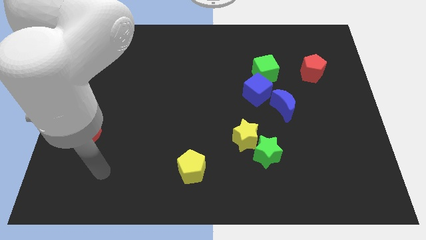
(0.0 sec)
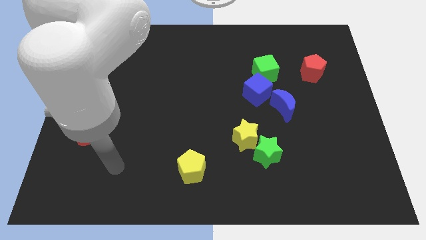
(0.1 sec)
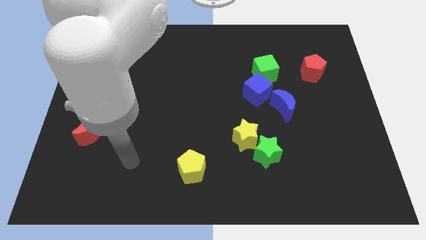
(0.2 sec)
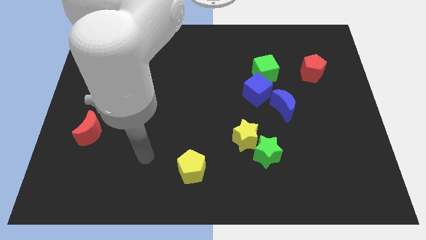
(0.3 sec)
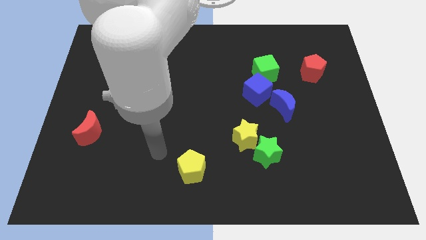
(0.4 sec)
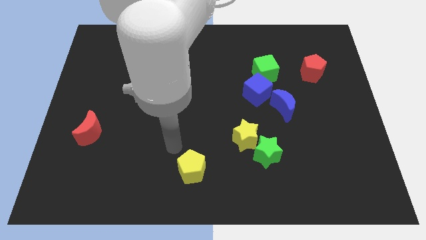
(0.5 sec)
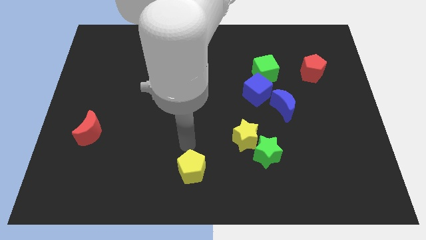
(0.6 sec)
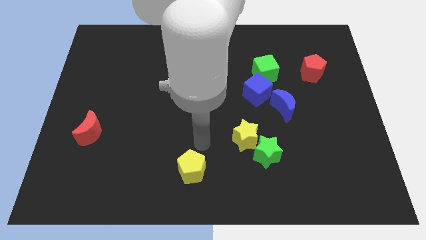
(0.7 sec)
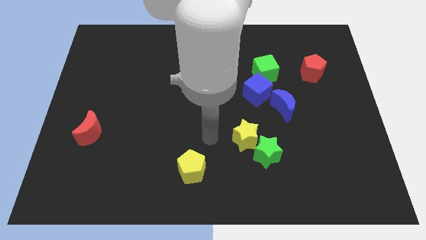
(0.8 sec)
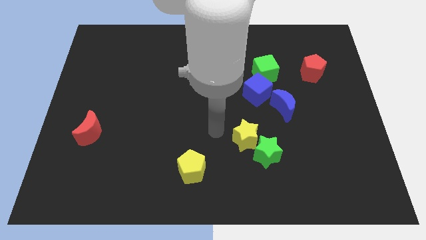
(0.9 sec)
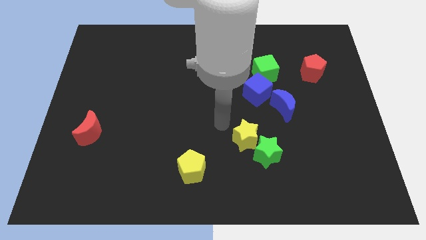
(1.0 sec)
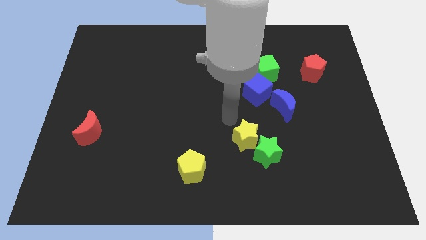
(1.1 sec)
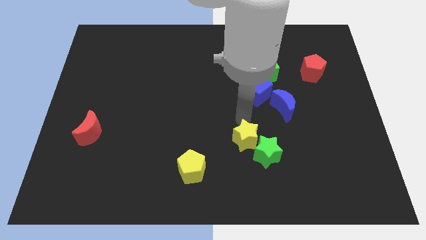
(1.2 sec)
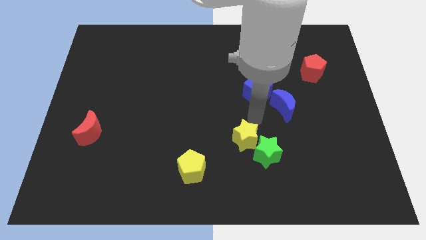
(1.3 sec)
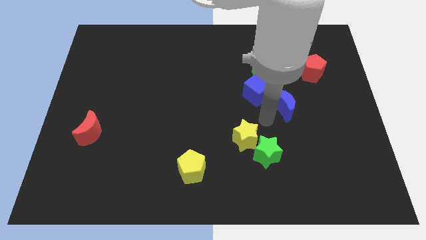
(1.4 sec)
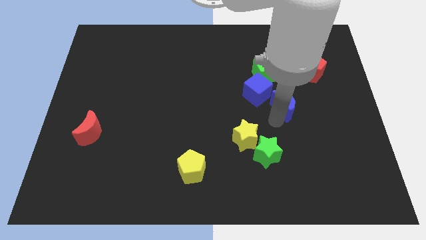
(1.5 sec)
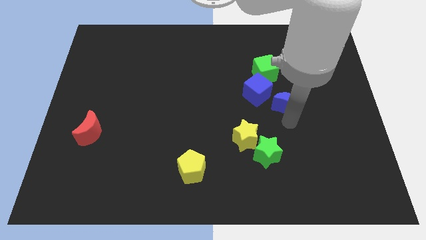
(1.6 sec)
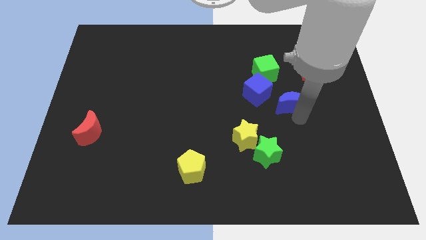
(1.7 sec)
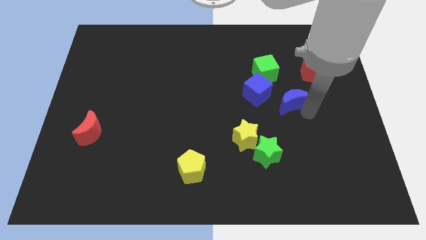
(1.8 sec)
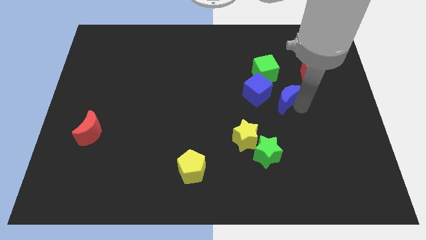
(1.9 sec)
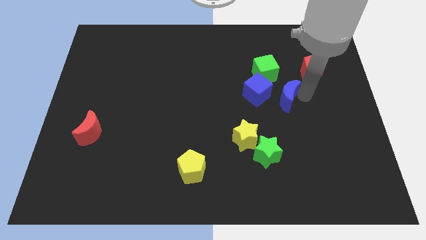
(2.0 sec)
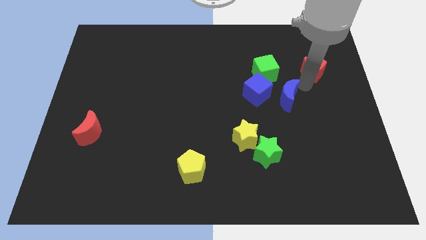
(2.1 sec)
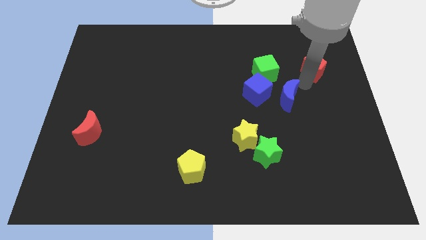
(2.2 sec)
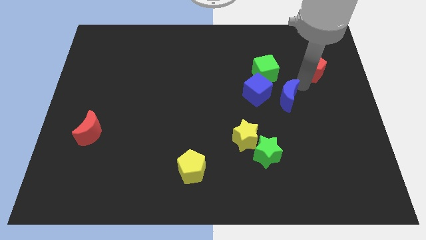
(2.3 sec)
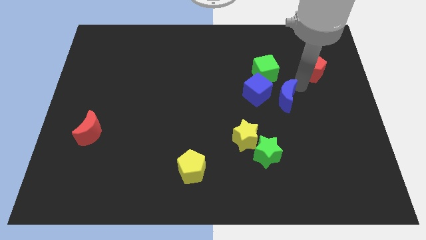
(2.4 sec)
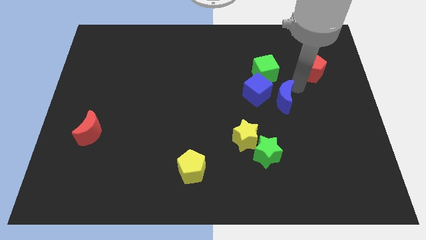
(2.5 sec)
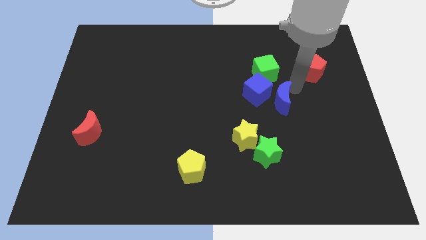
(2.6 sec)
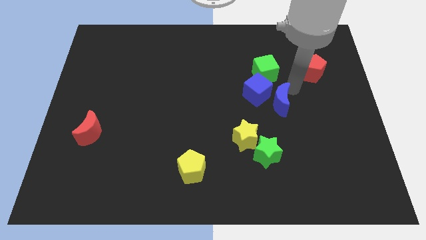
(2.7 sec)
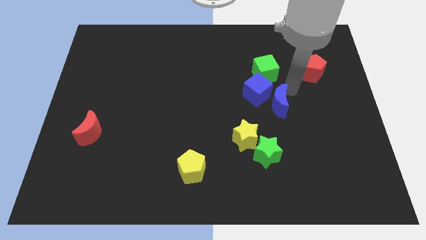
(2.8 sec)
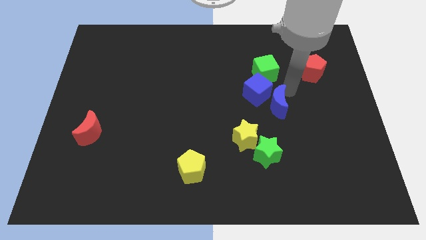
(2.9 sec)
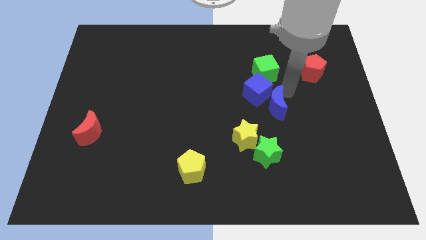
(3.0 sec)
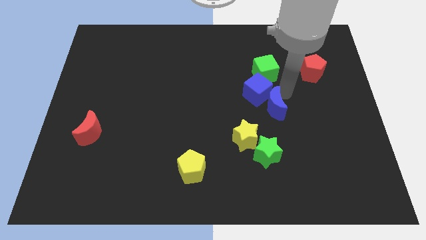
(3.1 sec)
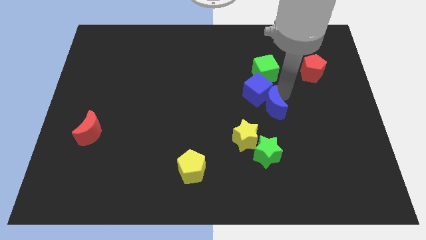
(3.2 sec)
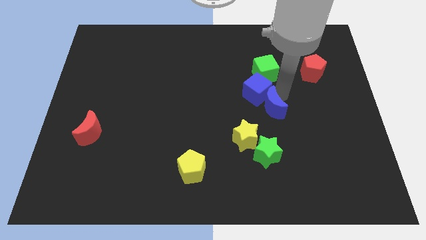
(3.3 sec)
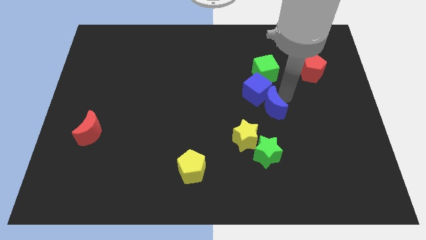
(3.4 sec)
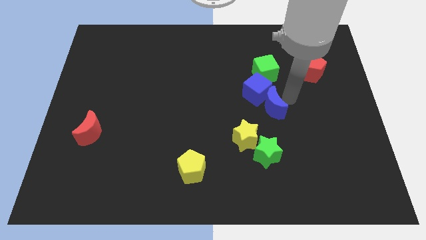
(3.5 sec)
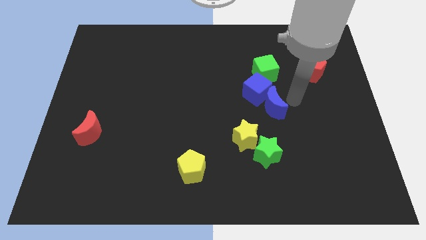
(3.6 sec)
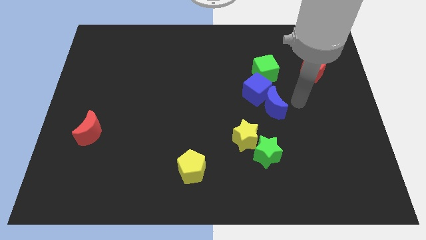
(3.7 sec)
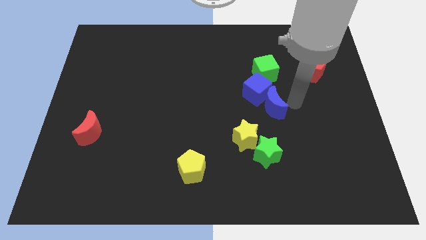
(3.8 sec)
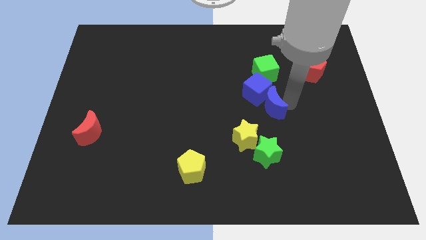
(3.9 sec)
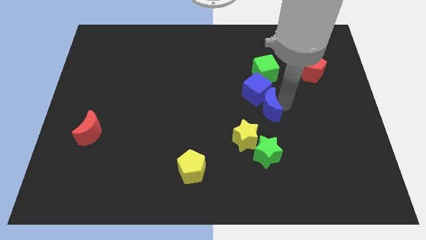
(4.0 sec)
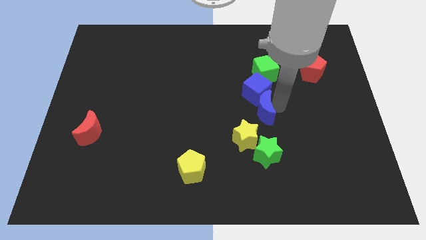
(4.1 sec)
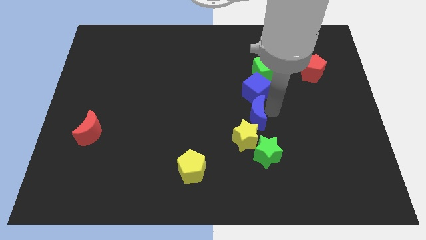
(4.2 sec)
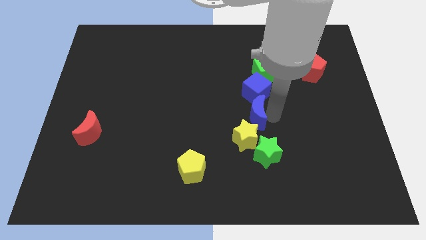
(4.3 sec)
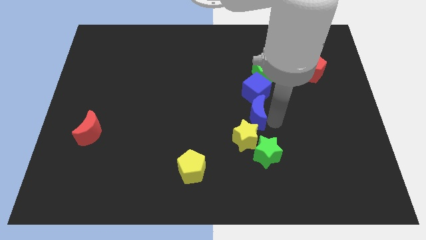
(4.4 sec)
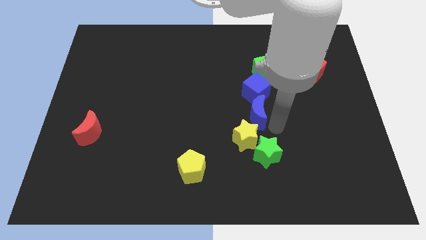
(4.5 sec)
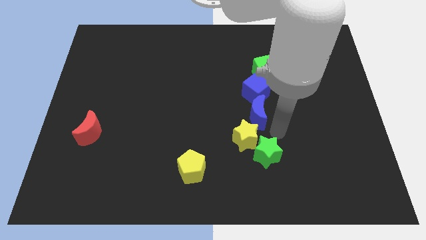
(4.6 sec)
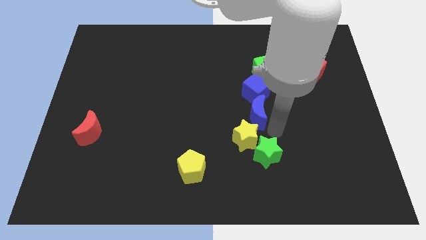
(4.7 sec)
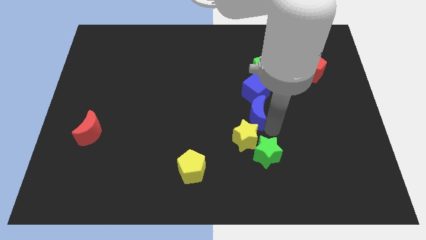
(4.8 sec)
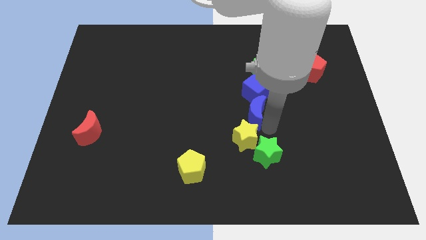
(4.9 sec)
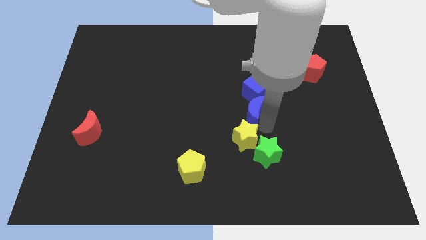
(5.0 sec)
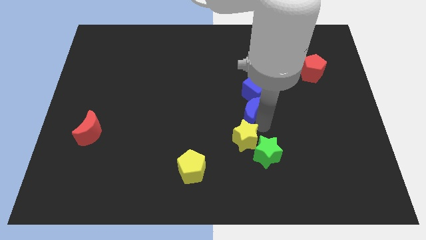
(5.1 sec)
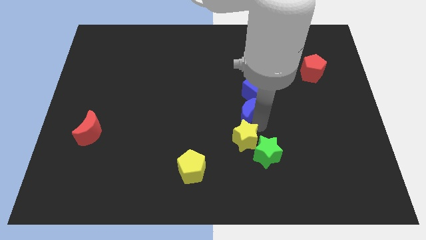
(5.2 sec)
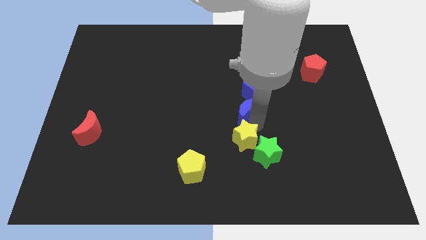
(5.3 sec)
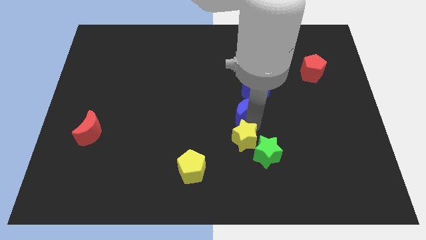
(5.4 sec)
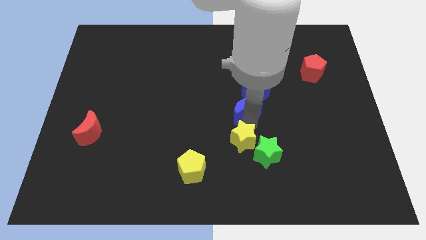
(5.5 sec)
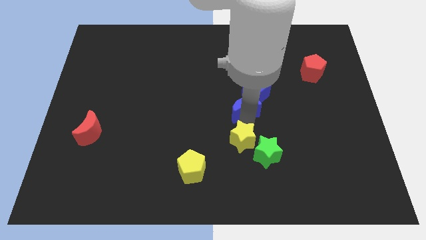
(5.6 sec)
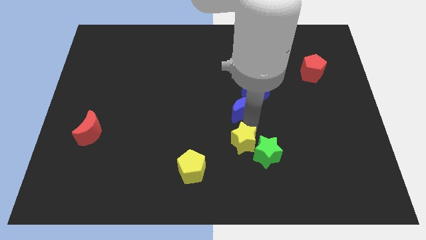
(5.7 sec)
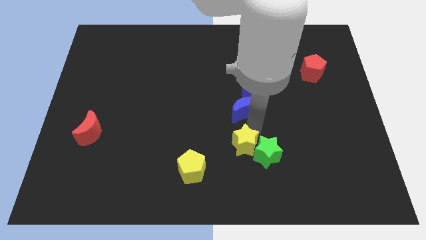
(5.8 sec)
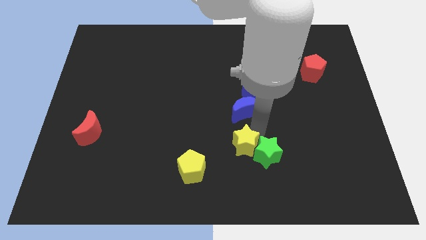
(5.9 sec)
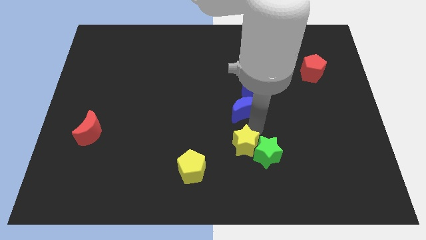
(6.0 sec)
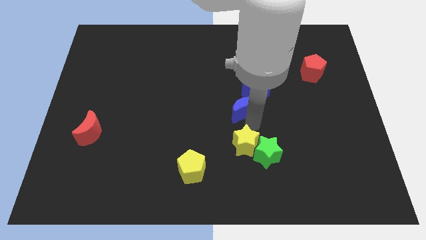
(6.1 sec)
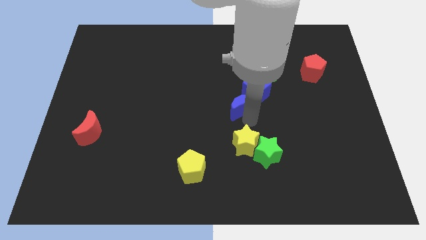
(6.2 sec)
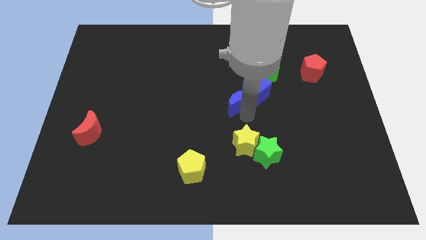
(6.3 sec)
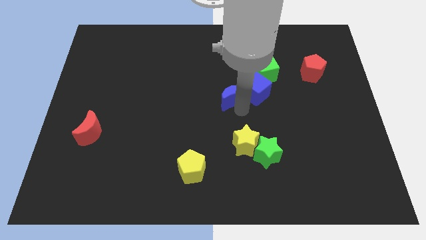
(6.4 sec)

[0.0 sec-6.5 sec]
push the blue moon diagonally upwards and left a bit

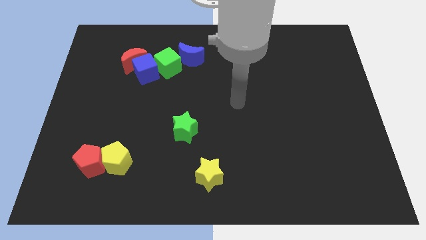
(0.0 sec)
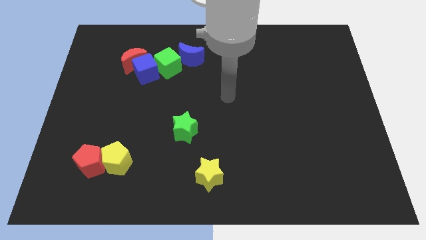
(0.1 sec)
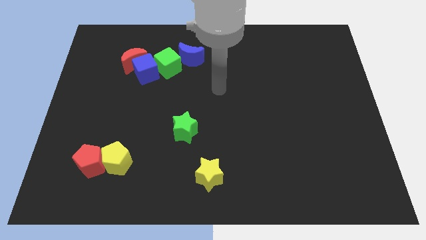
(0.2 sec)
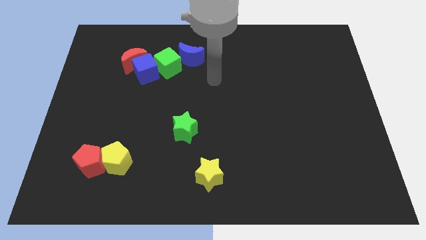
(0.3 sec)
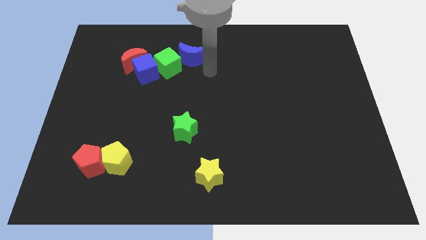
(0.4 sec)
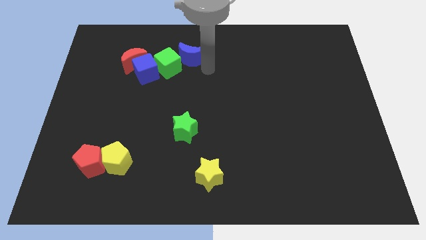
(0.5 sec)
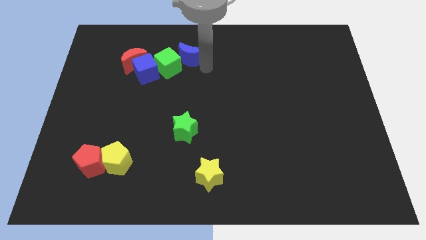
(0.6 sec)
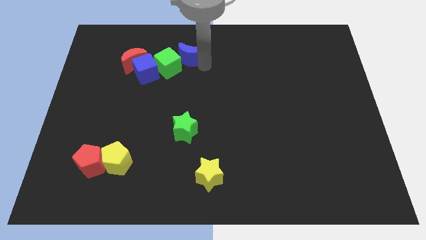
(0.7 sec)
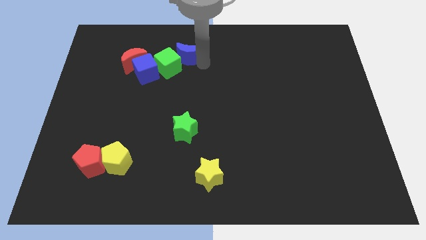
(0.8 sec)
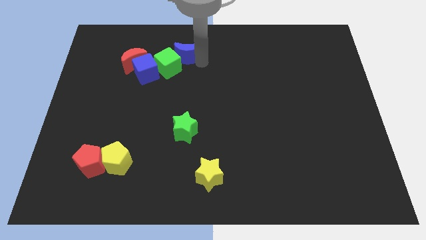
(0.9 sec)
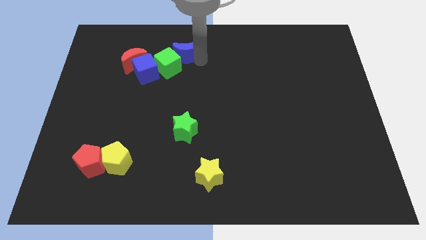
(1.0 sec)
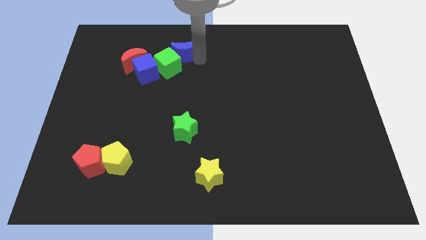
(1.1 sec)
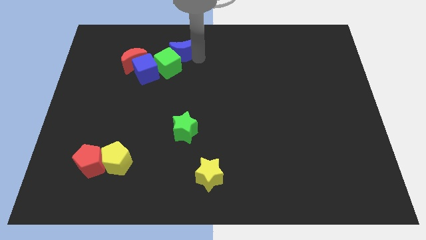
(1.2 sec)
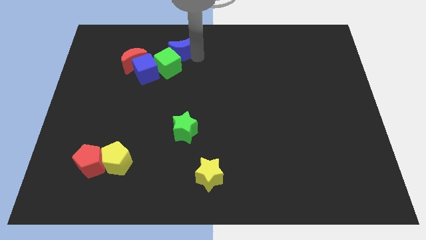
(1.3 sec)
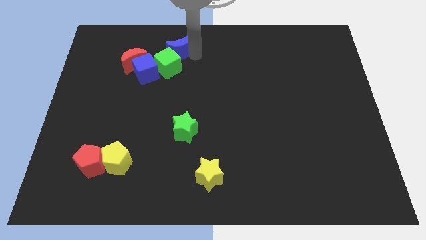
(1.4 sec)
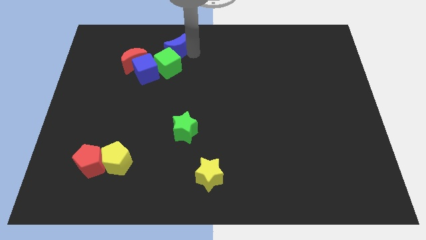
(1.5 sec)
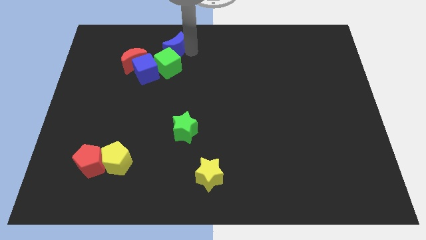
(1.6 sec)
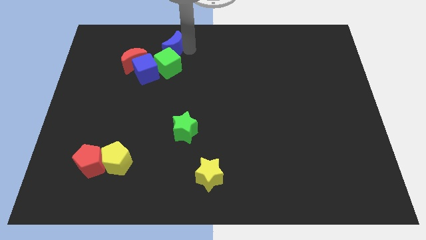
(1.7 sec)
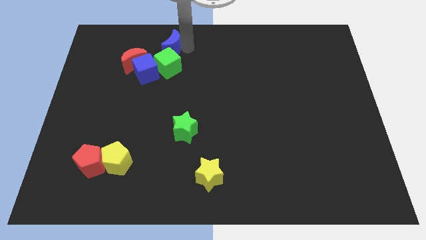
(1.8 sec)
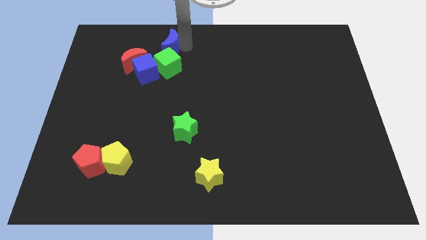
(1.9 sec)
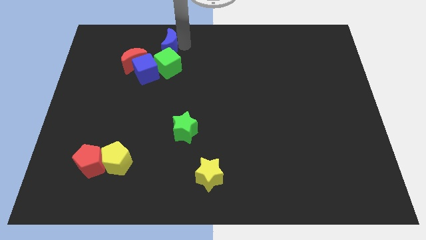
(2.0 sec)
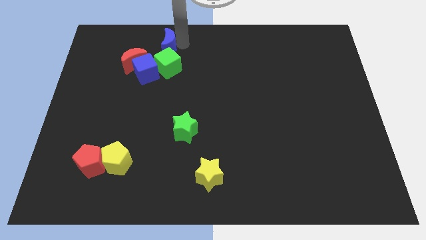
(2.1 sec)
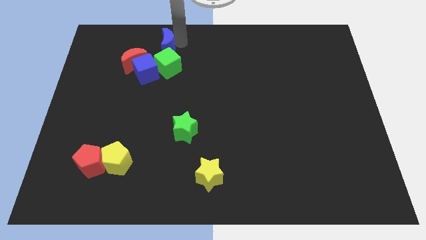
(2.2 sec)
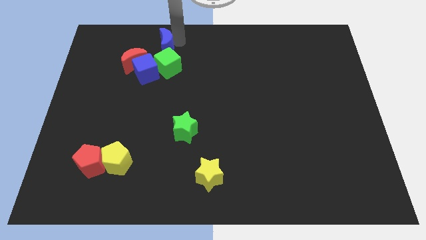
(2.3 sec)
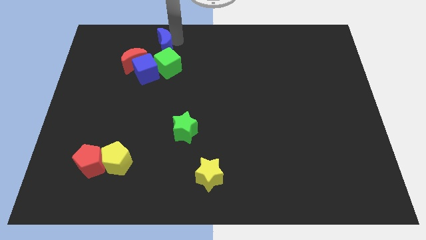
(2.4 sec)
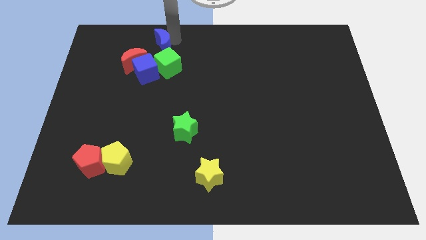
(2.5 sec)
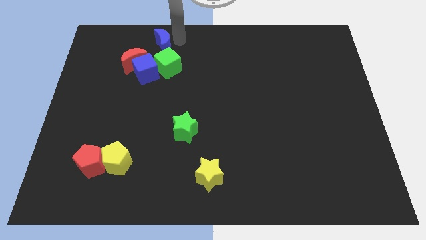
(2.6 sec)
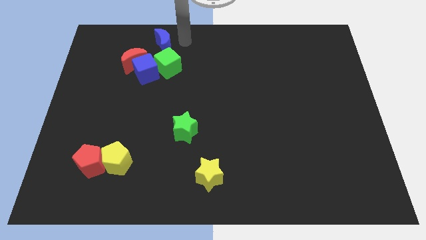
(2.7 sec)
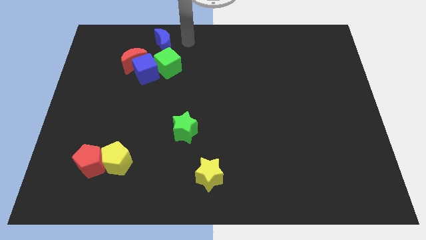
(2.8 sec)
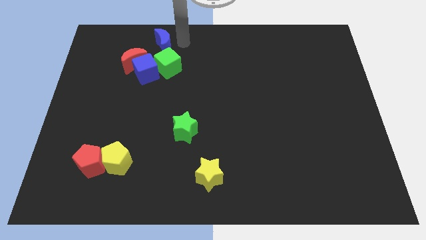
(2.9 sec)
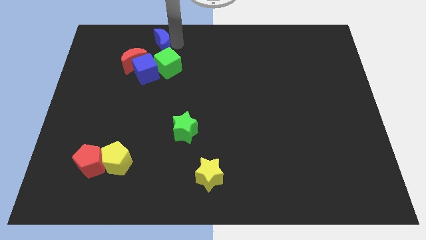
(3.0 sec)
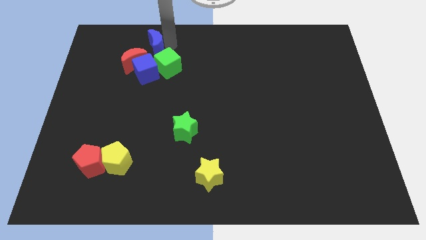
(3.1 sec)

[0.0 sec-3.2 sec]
move the blue moon to the left slightly
